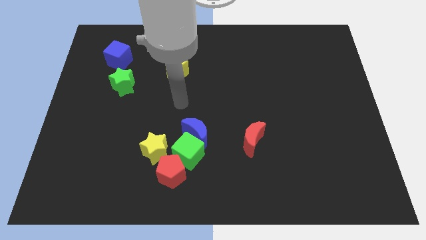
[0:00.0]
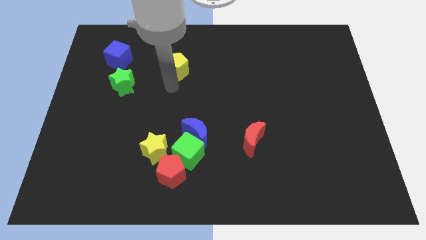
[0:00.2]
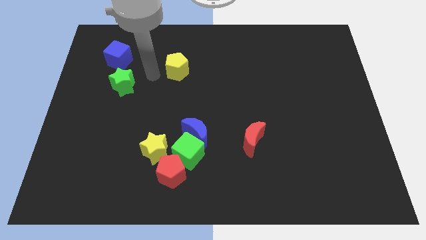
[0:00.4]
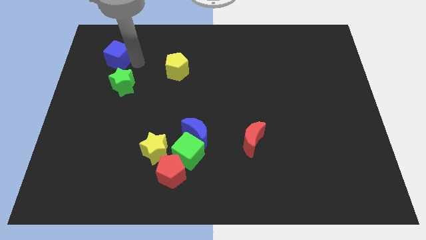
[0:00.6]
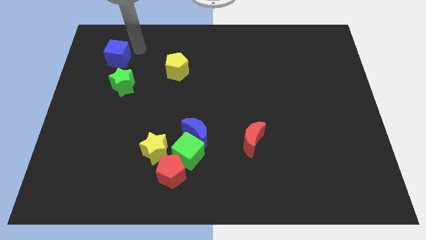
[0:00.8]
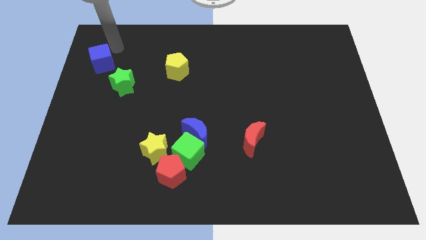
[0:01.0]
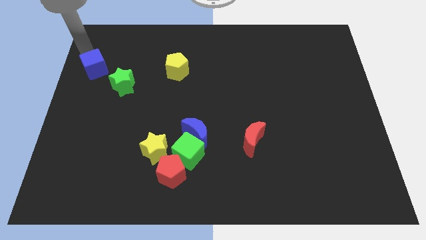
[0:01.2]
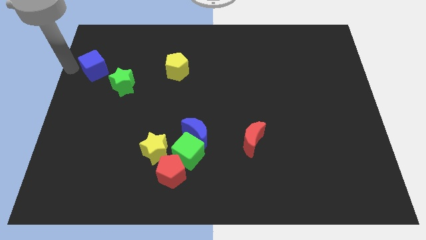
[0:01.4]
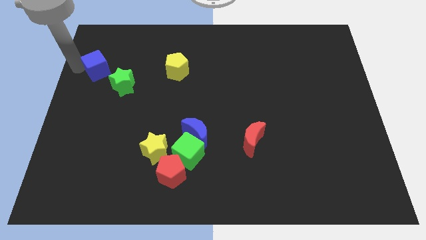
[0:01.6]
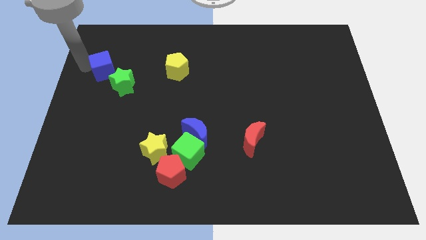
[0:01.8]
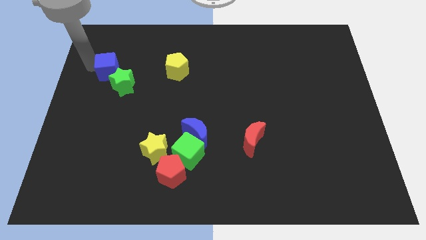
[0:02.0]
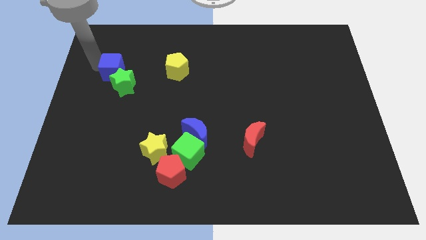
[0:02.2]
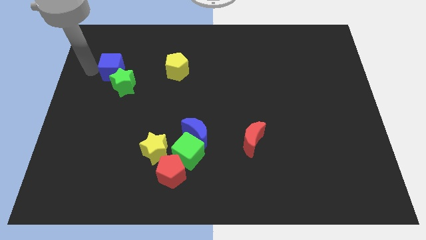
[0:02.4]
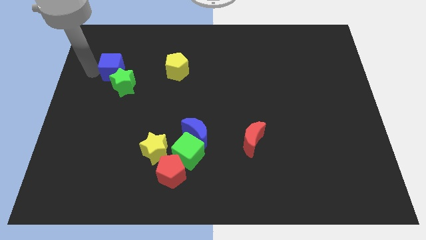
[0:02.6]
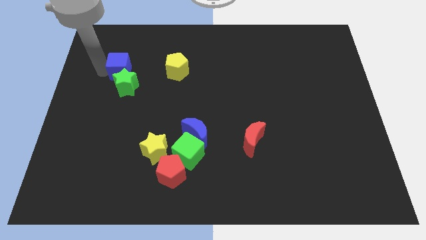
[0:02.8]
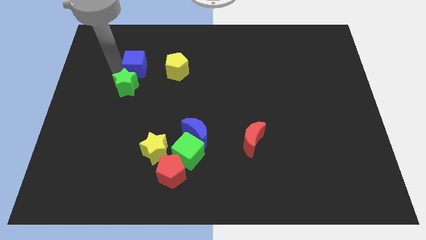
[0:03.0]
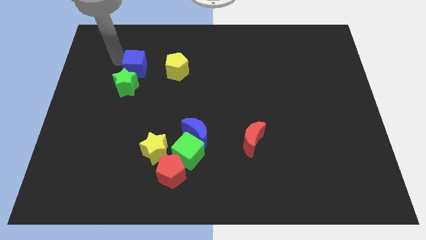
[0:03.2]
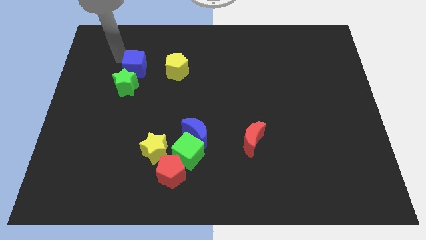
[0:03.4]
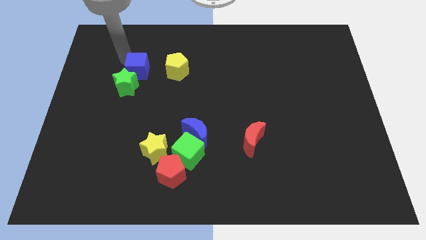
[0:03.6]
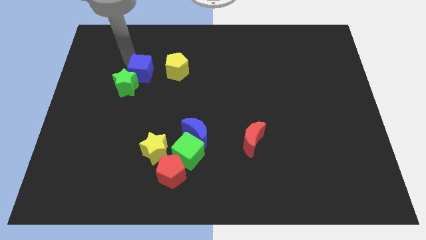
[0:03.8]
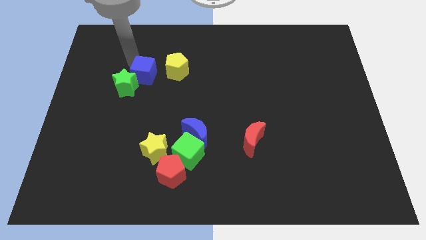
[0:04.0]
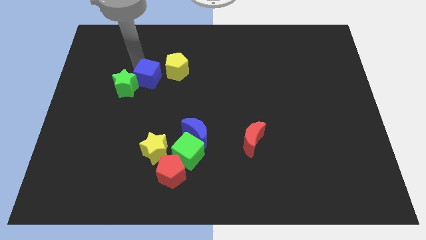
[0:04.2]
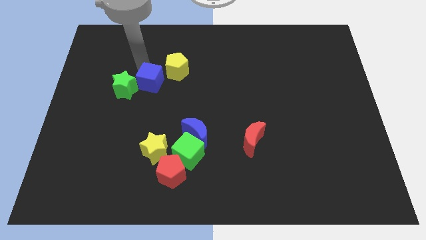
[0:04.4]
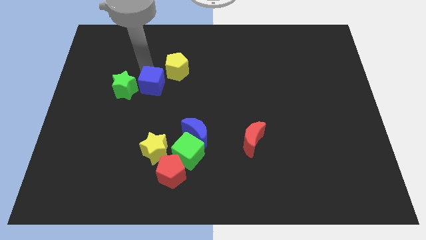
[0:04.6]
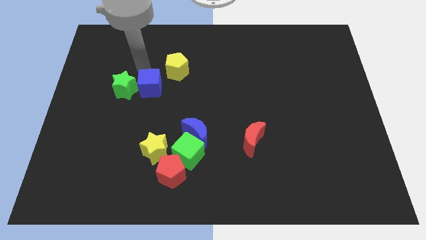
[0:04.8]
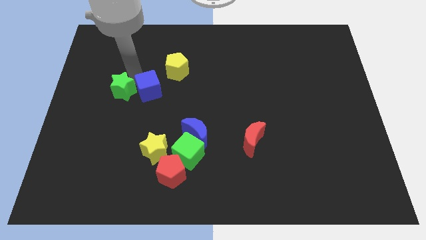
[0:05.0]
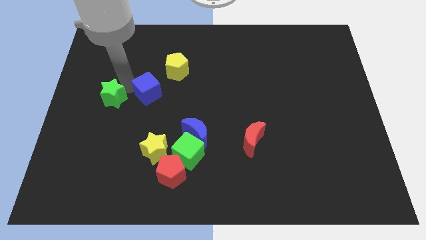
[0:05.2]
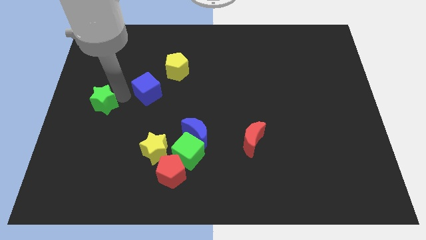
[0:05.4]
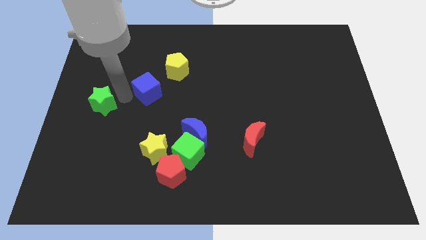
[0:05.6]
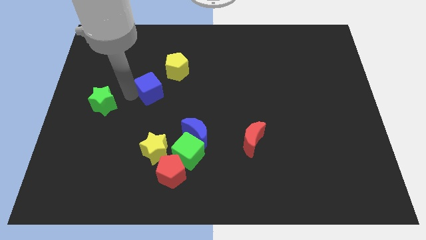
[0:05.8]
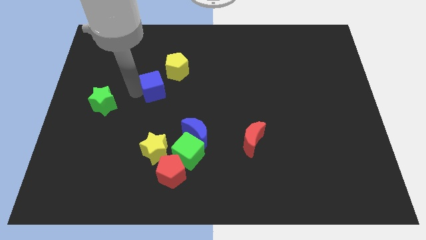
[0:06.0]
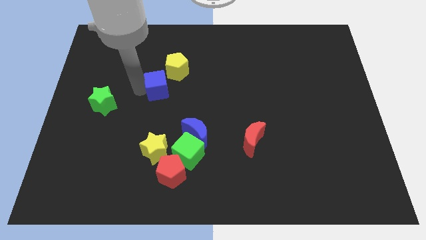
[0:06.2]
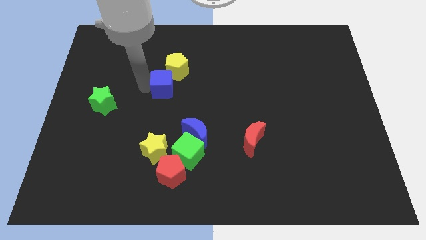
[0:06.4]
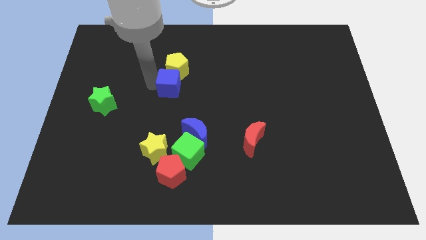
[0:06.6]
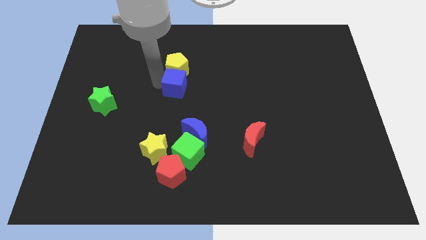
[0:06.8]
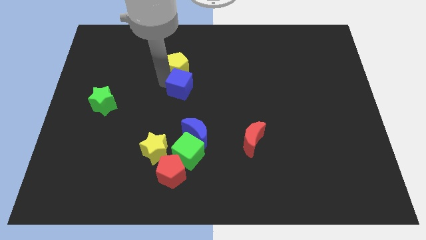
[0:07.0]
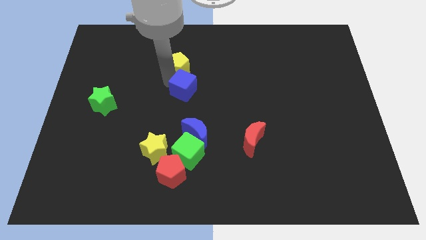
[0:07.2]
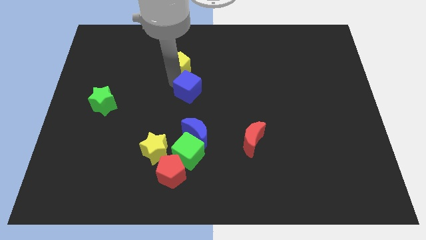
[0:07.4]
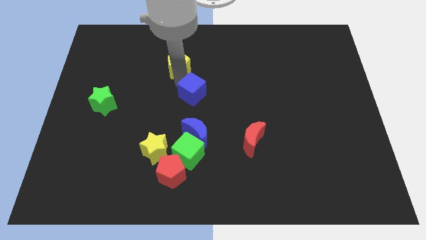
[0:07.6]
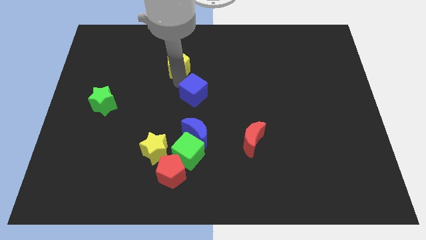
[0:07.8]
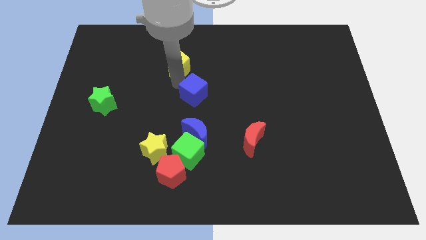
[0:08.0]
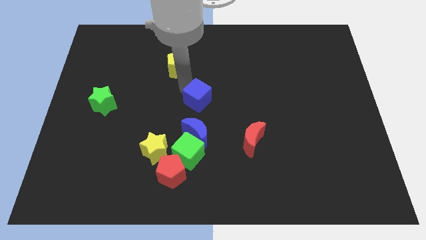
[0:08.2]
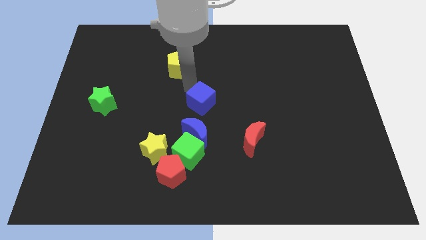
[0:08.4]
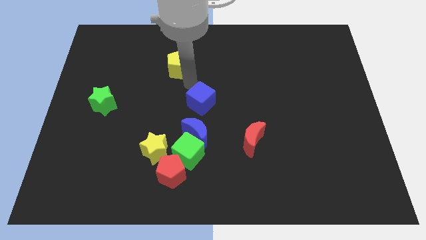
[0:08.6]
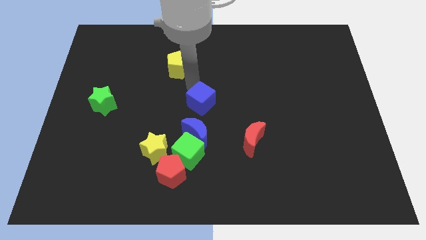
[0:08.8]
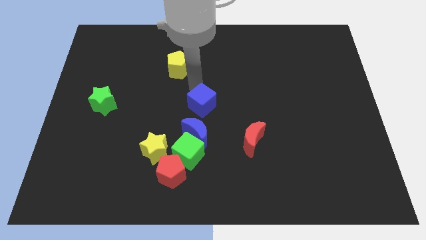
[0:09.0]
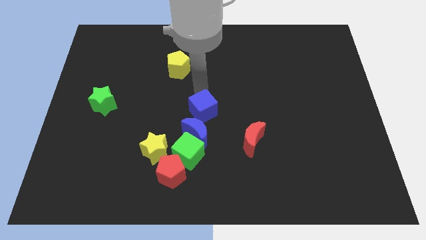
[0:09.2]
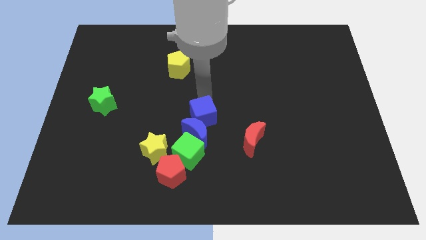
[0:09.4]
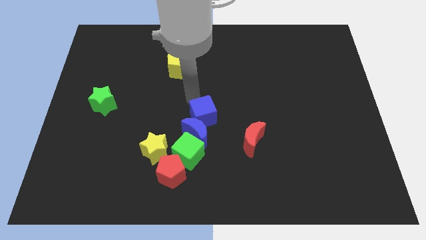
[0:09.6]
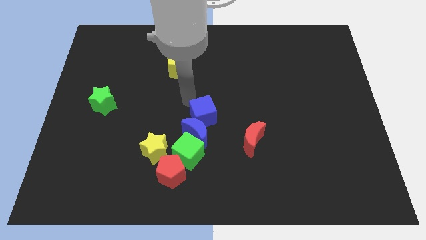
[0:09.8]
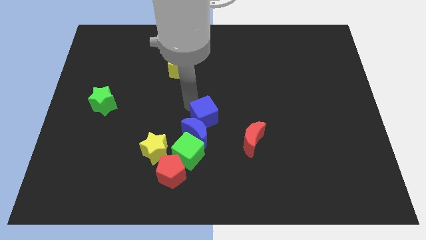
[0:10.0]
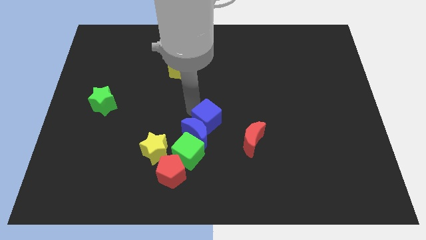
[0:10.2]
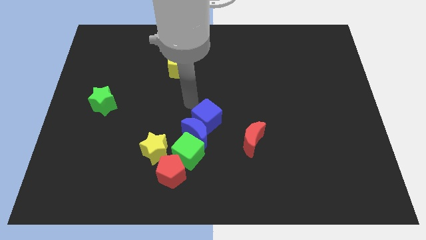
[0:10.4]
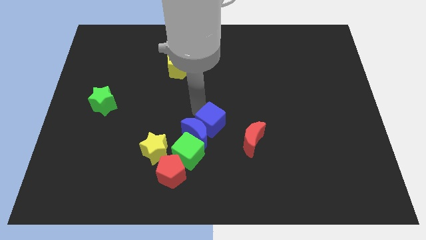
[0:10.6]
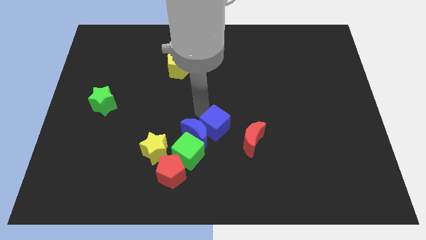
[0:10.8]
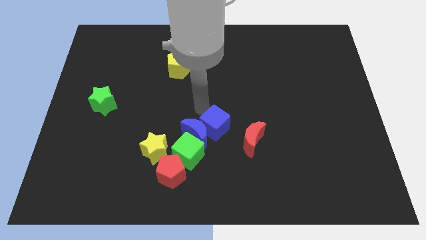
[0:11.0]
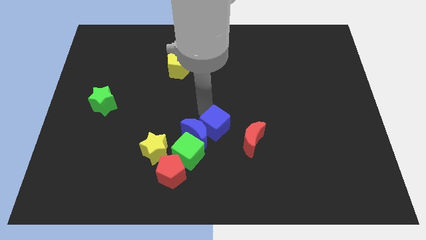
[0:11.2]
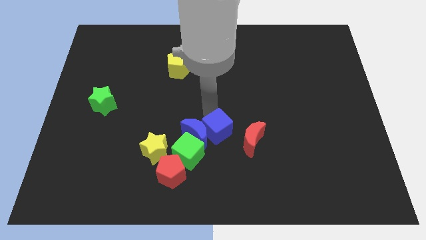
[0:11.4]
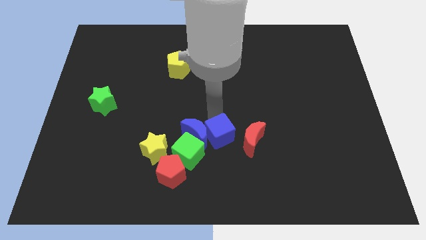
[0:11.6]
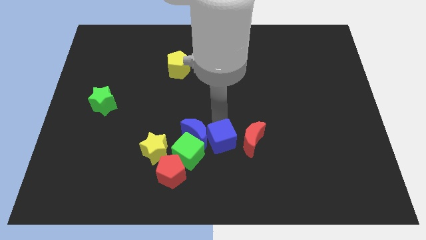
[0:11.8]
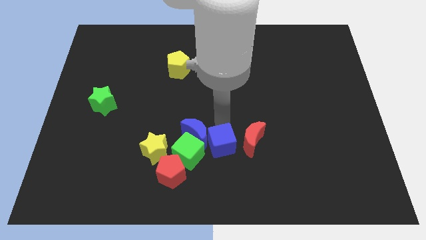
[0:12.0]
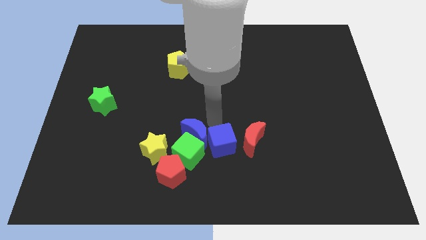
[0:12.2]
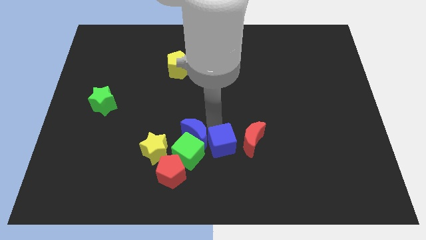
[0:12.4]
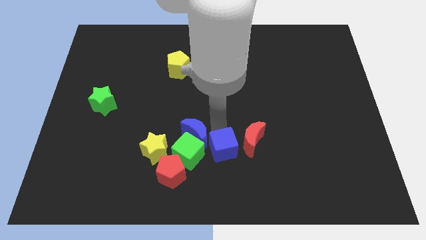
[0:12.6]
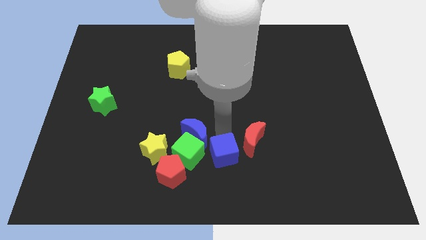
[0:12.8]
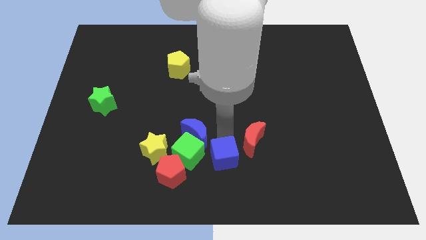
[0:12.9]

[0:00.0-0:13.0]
move the blue cube diagonally down and to the right of the green cube

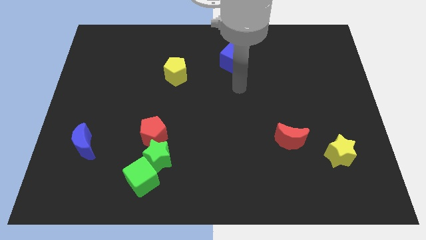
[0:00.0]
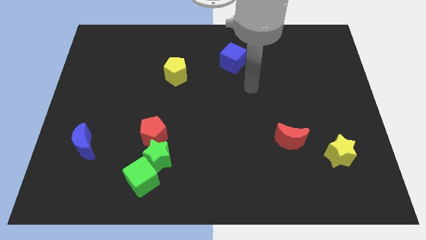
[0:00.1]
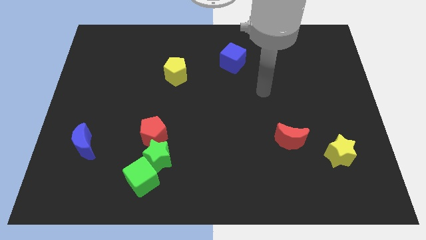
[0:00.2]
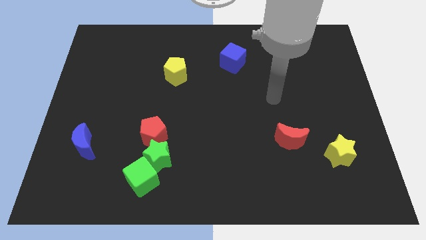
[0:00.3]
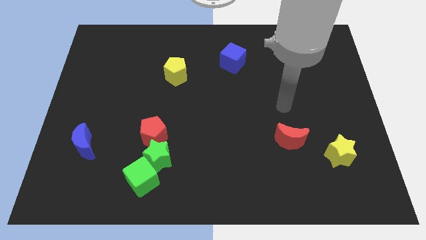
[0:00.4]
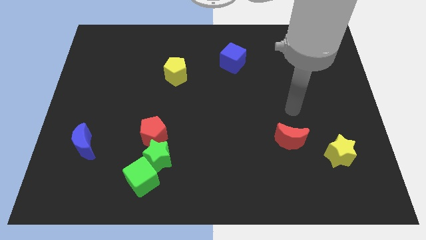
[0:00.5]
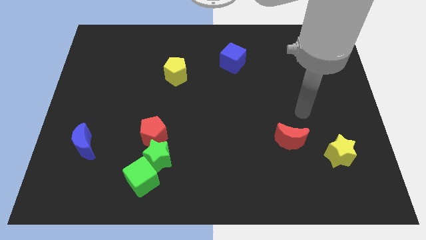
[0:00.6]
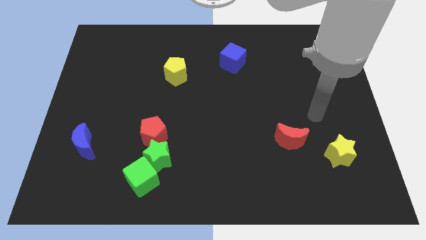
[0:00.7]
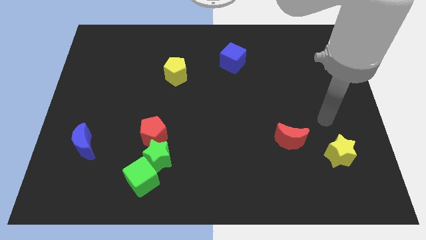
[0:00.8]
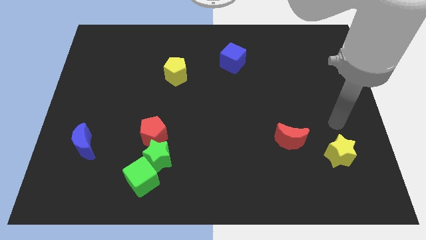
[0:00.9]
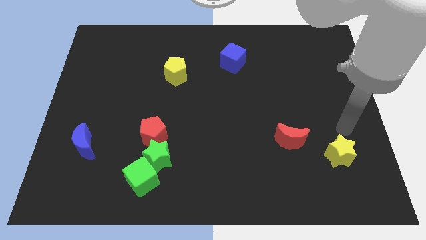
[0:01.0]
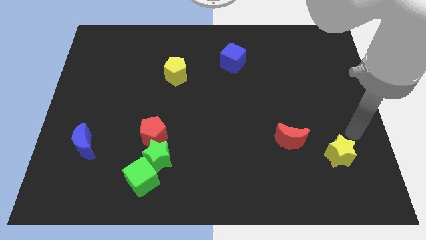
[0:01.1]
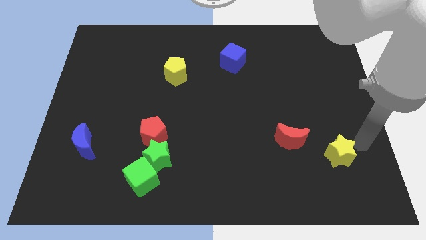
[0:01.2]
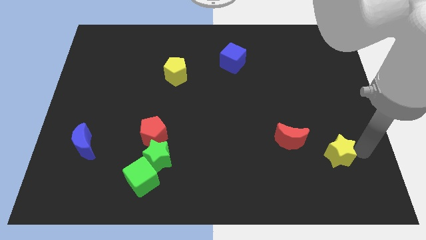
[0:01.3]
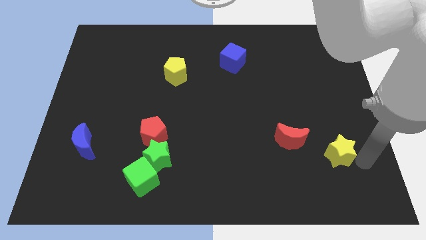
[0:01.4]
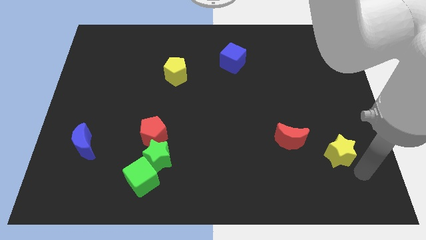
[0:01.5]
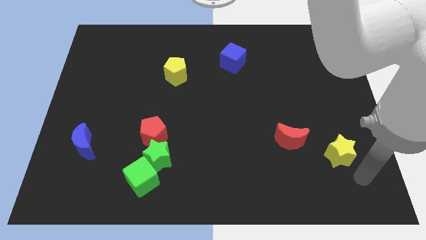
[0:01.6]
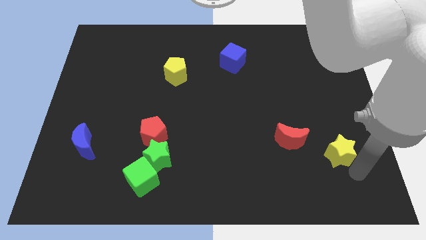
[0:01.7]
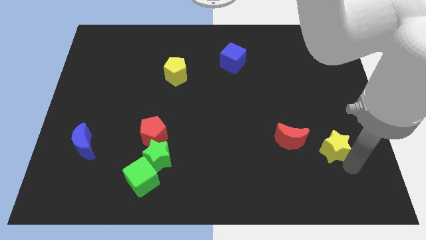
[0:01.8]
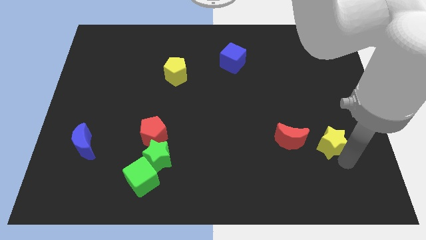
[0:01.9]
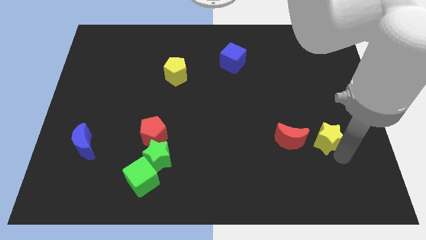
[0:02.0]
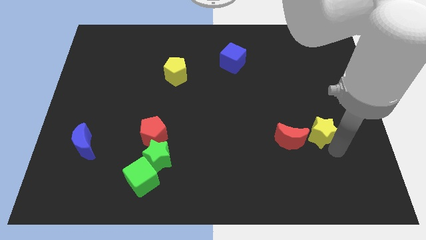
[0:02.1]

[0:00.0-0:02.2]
put the yellow star diagonally up and to the right of the red moon
